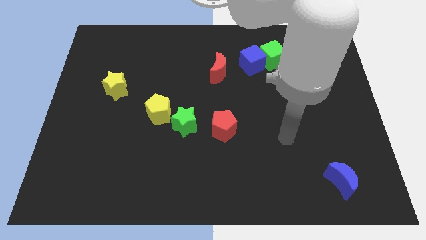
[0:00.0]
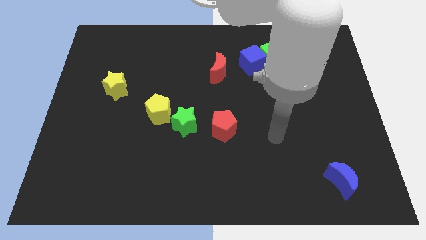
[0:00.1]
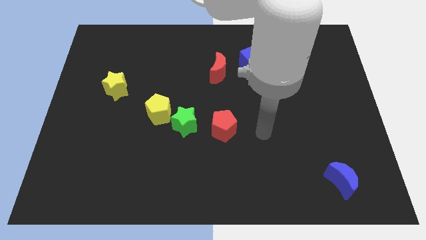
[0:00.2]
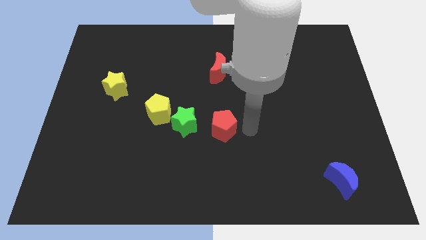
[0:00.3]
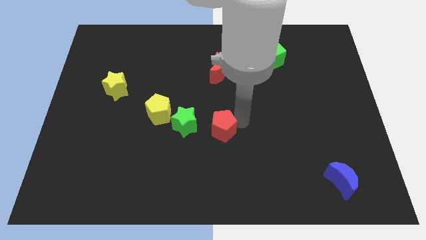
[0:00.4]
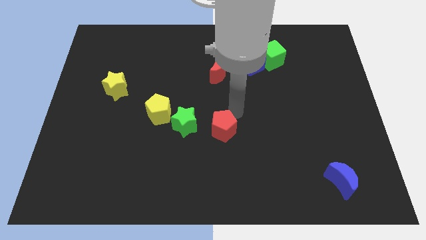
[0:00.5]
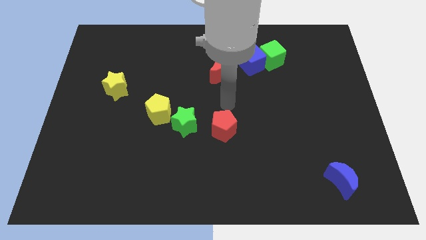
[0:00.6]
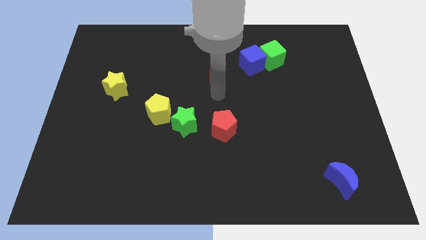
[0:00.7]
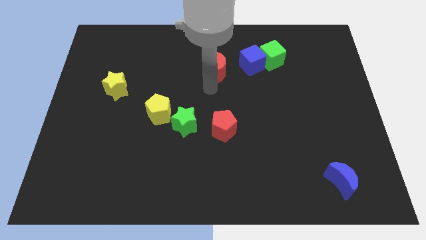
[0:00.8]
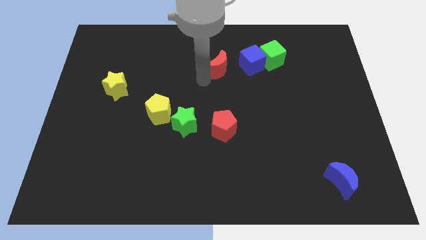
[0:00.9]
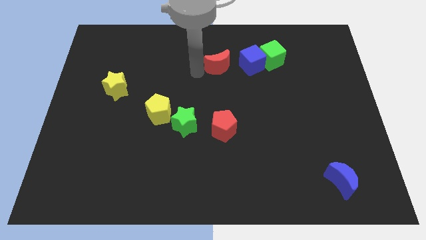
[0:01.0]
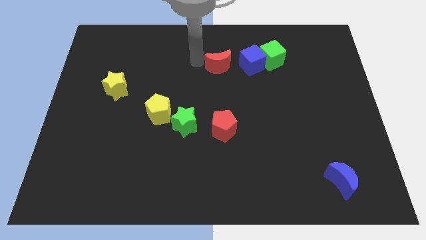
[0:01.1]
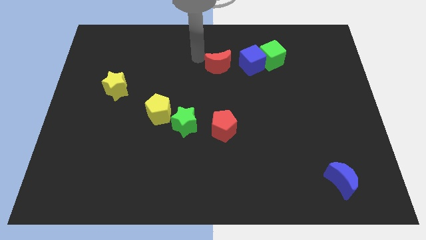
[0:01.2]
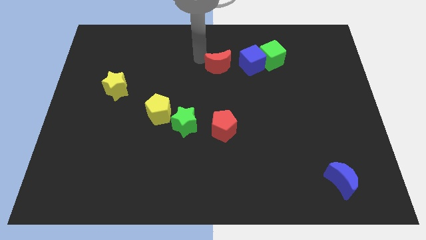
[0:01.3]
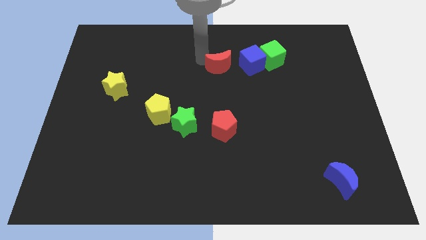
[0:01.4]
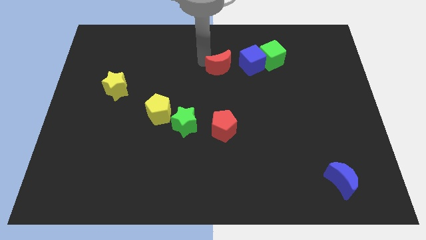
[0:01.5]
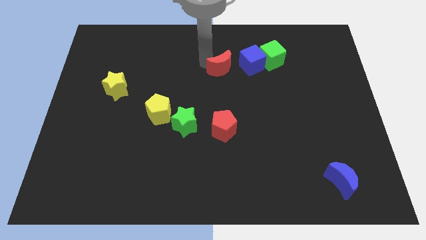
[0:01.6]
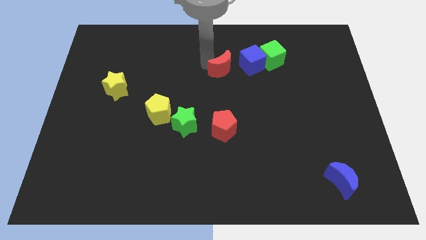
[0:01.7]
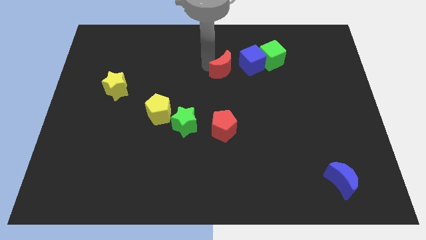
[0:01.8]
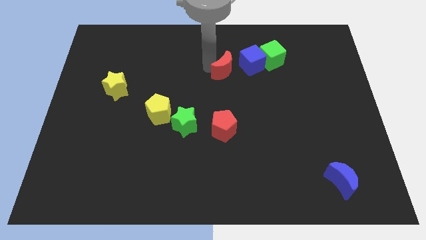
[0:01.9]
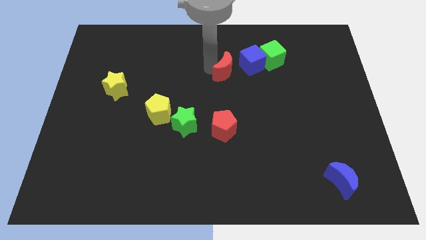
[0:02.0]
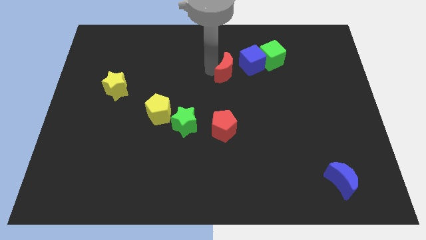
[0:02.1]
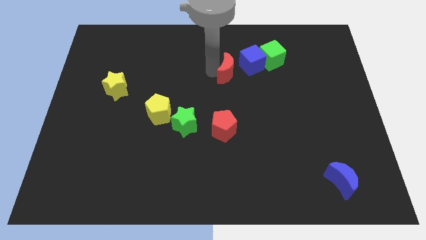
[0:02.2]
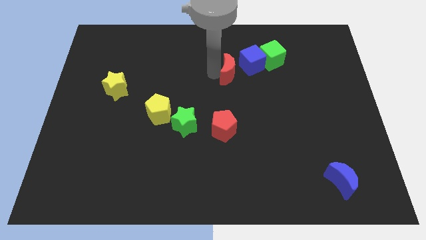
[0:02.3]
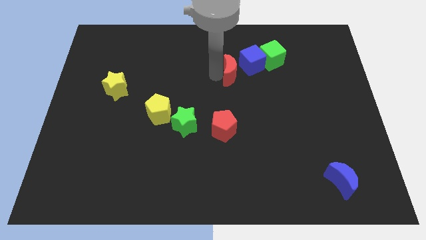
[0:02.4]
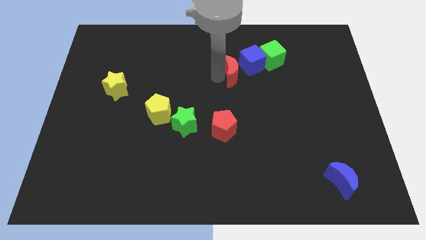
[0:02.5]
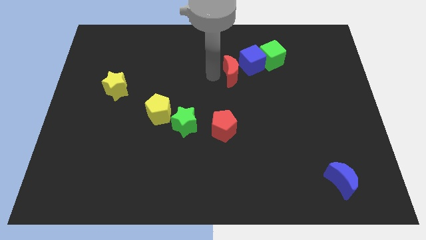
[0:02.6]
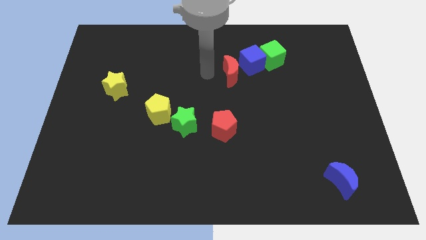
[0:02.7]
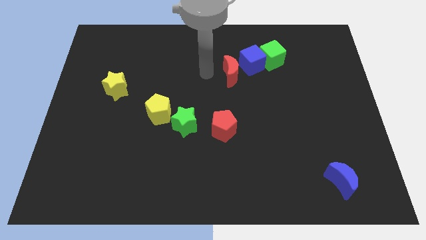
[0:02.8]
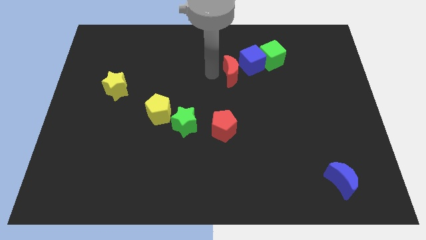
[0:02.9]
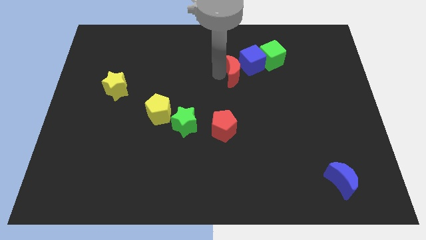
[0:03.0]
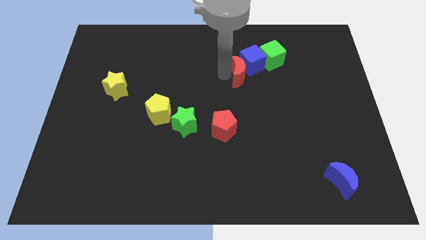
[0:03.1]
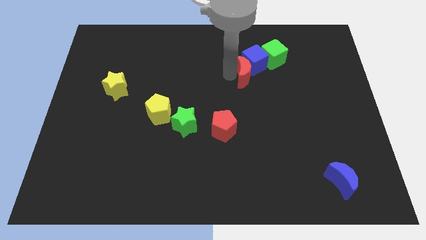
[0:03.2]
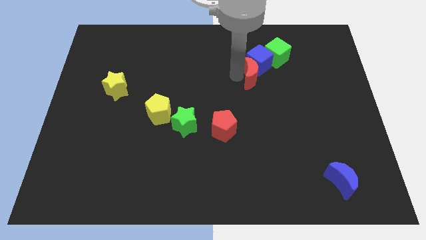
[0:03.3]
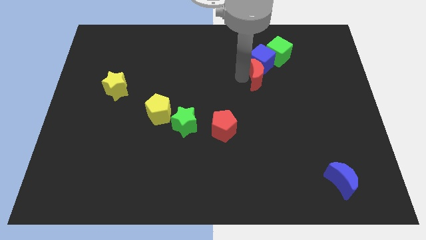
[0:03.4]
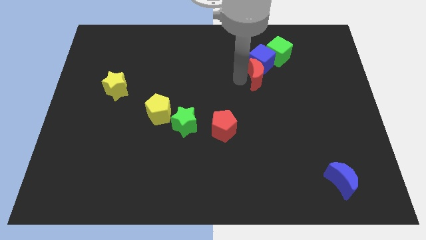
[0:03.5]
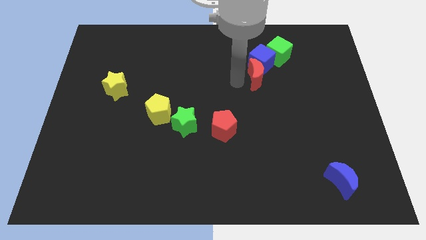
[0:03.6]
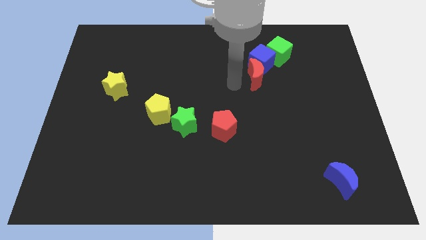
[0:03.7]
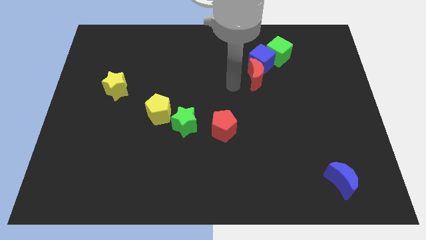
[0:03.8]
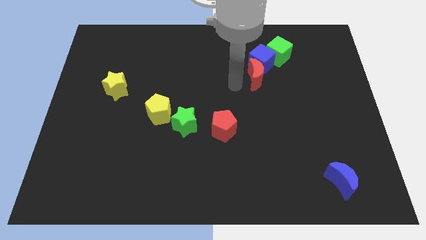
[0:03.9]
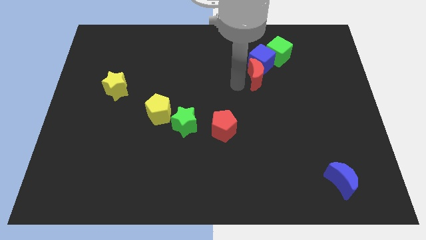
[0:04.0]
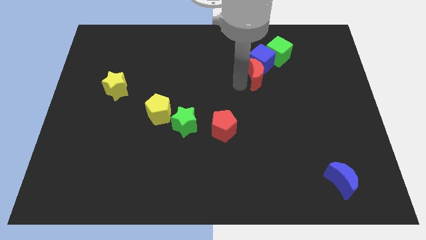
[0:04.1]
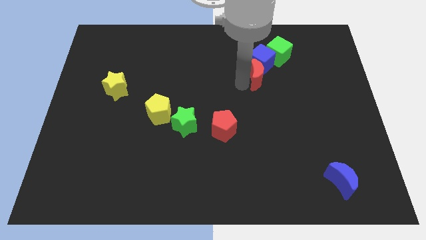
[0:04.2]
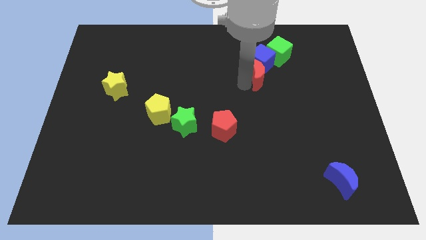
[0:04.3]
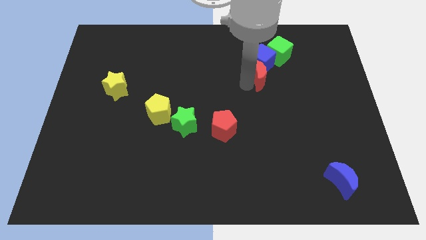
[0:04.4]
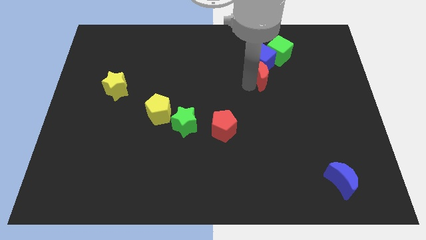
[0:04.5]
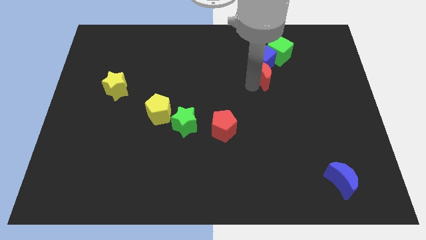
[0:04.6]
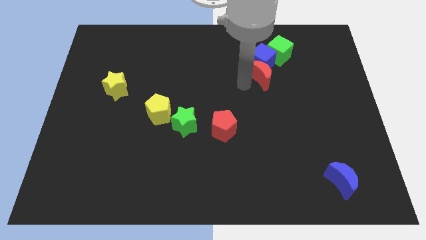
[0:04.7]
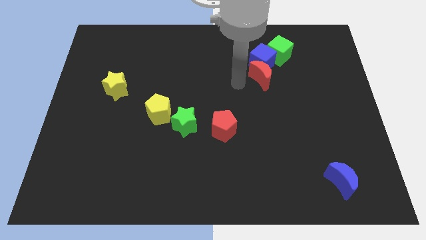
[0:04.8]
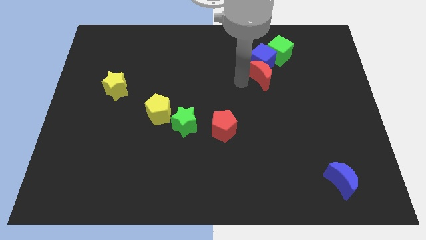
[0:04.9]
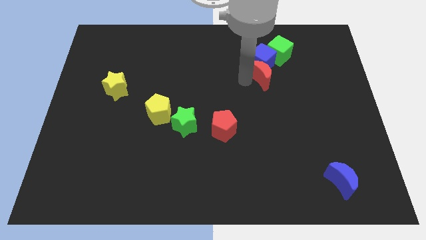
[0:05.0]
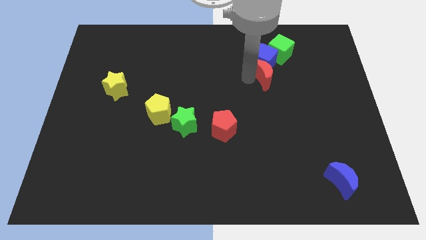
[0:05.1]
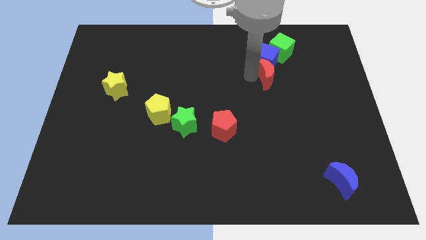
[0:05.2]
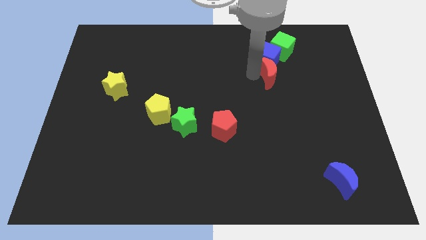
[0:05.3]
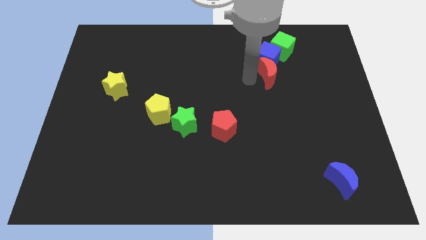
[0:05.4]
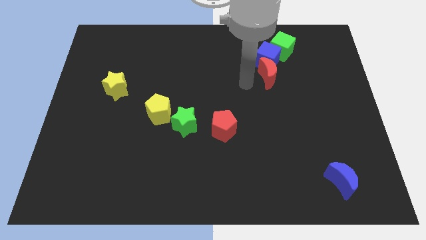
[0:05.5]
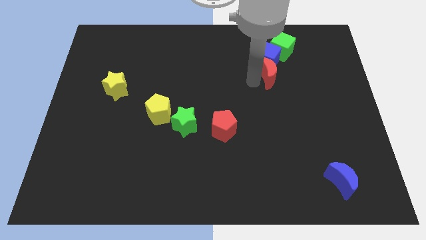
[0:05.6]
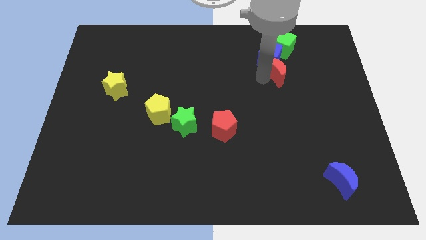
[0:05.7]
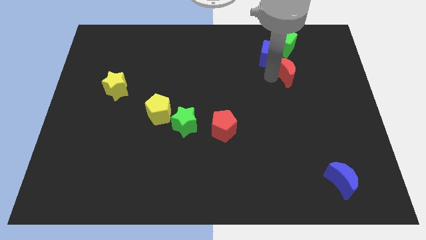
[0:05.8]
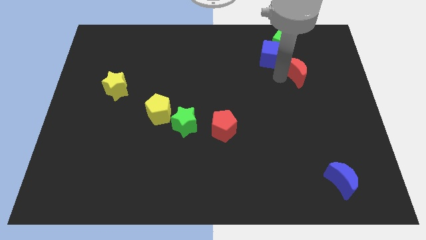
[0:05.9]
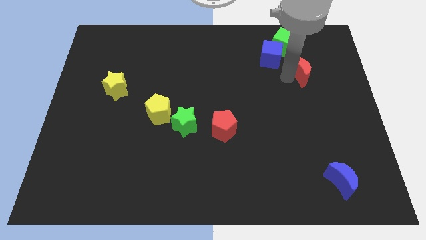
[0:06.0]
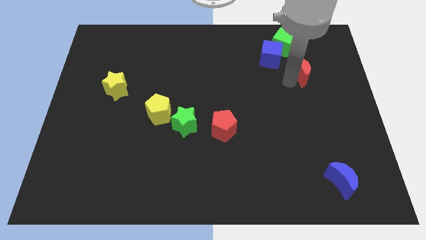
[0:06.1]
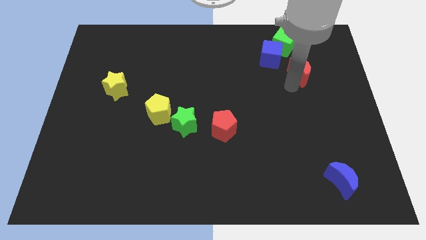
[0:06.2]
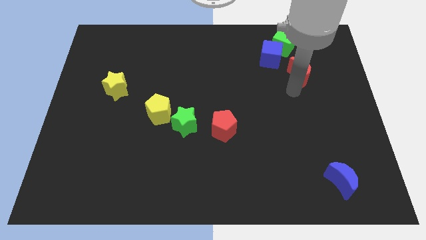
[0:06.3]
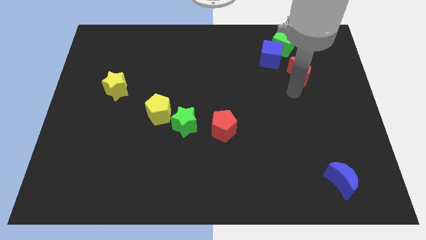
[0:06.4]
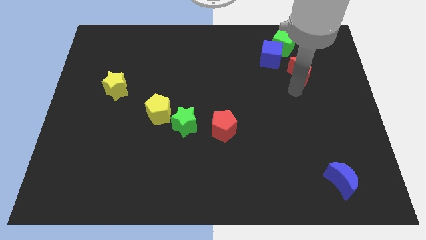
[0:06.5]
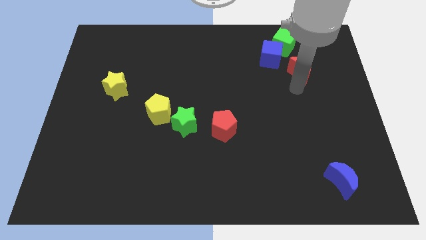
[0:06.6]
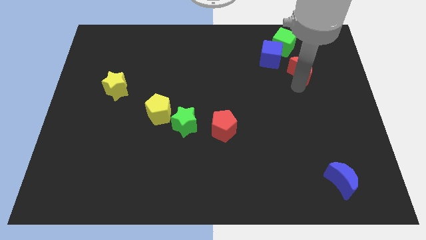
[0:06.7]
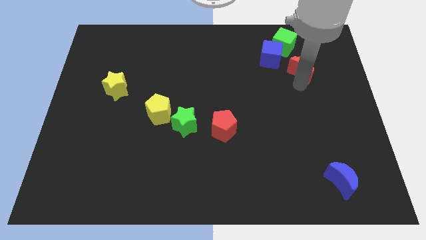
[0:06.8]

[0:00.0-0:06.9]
slide the red moon to the bottom right of the green cube
